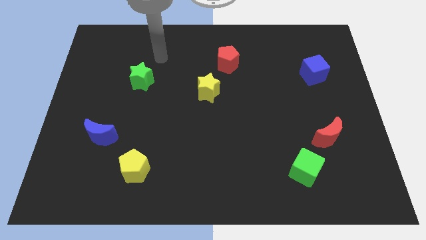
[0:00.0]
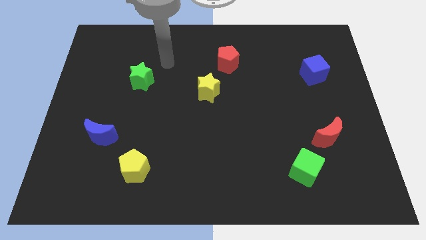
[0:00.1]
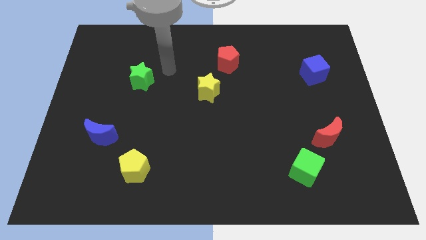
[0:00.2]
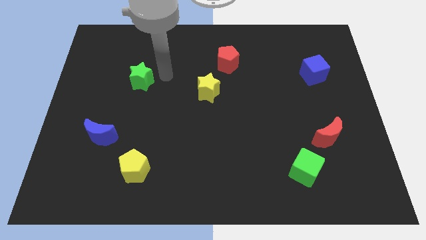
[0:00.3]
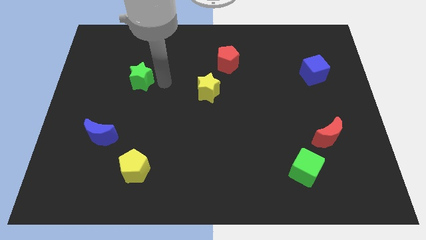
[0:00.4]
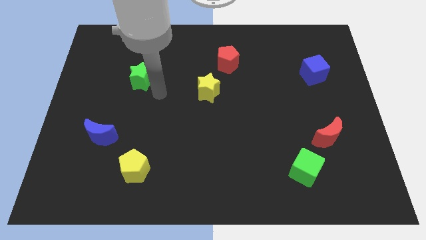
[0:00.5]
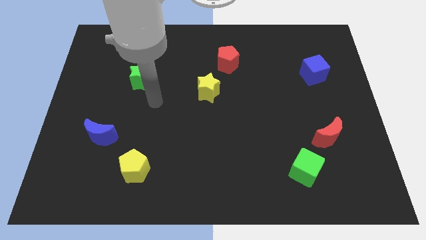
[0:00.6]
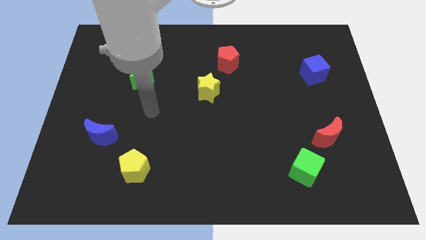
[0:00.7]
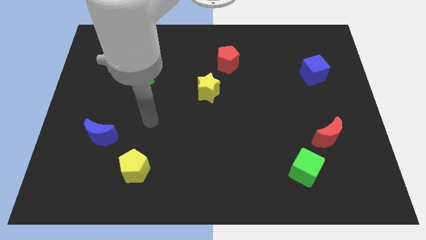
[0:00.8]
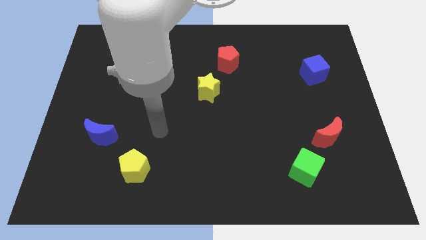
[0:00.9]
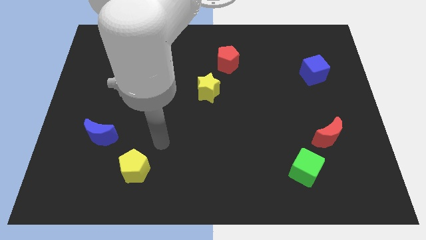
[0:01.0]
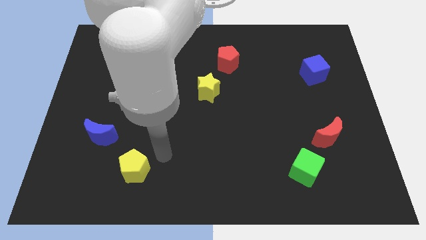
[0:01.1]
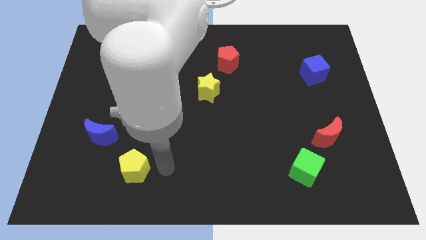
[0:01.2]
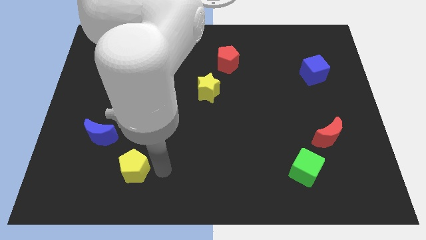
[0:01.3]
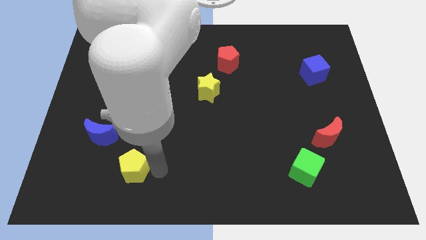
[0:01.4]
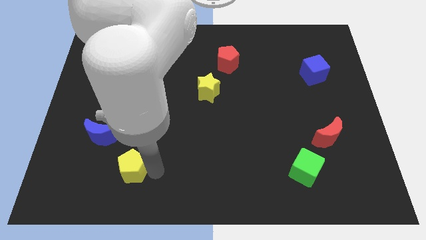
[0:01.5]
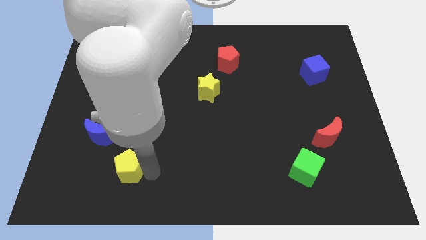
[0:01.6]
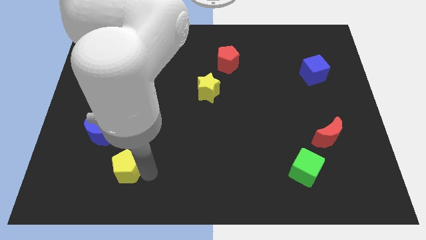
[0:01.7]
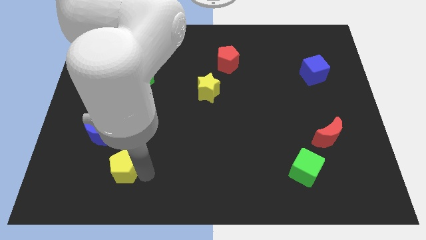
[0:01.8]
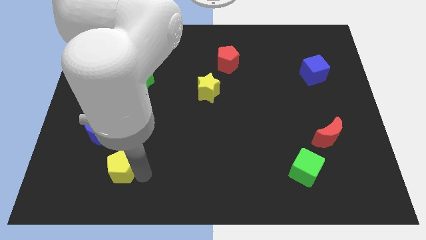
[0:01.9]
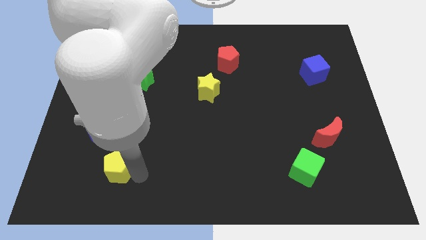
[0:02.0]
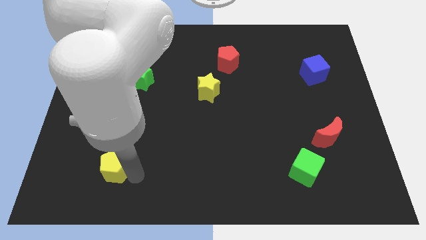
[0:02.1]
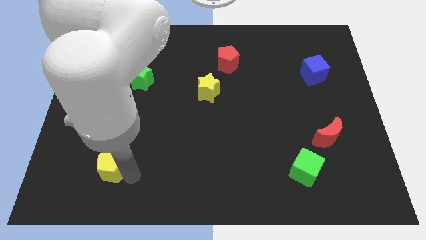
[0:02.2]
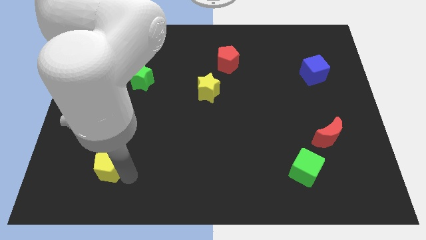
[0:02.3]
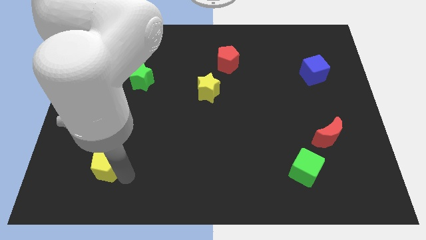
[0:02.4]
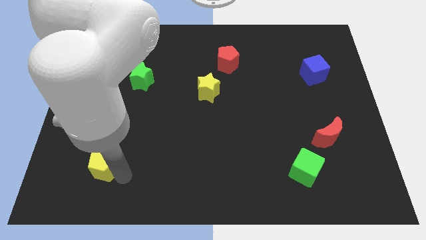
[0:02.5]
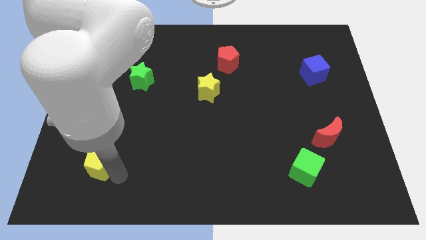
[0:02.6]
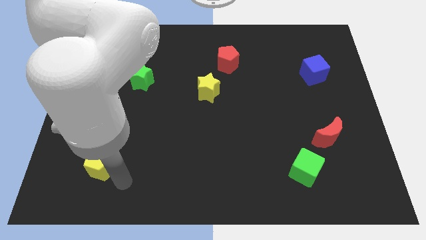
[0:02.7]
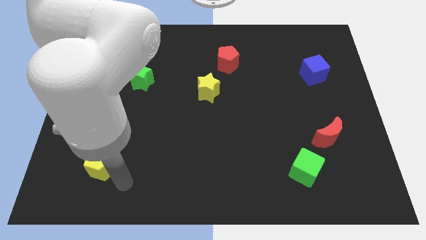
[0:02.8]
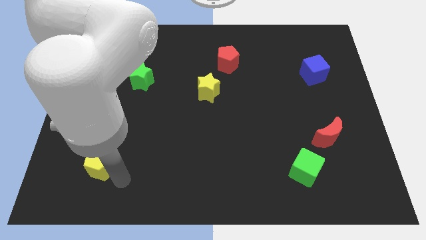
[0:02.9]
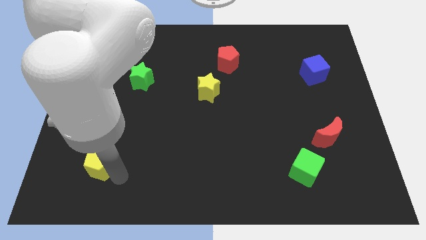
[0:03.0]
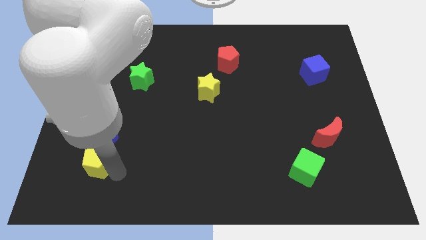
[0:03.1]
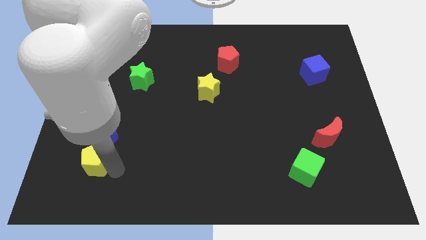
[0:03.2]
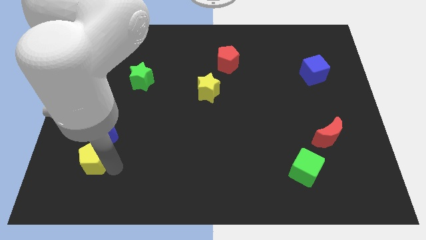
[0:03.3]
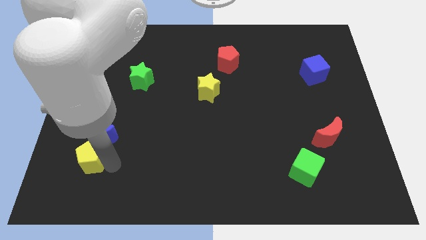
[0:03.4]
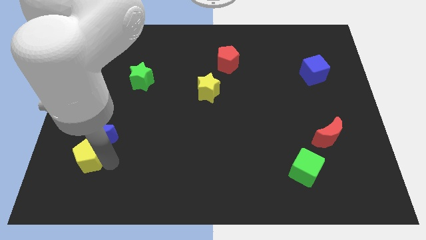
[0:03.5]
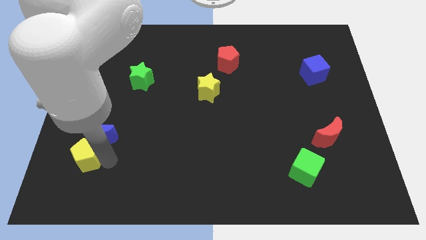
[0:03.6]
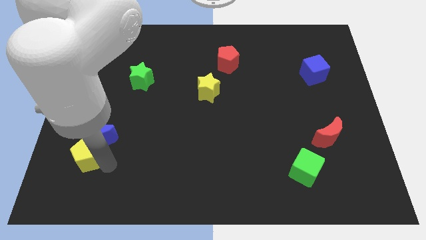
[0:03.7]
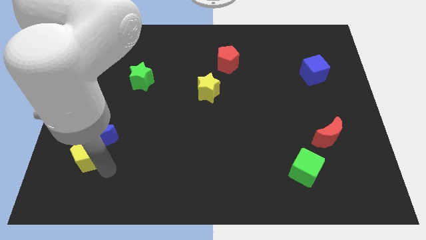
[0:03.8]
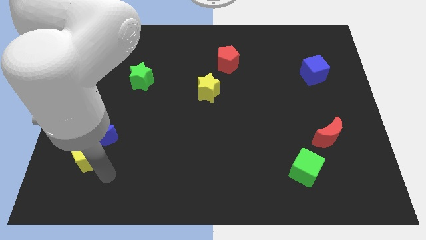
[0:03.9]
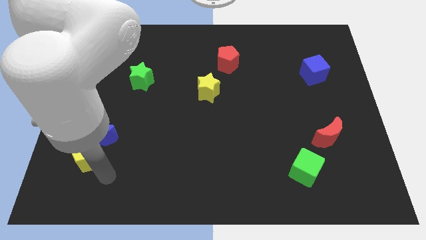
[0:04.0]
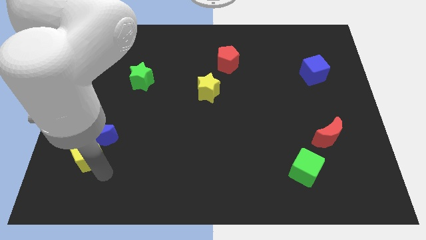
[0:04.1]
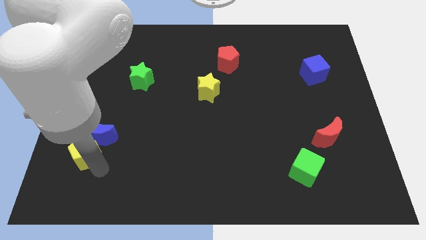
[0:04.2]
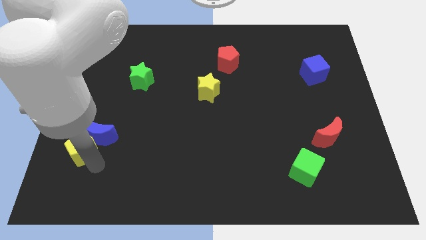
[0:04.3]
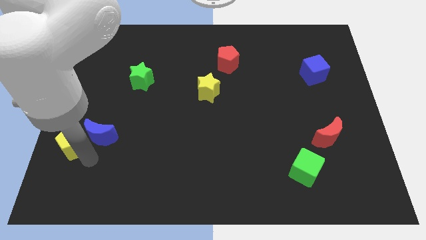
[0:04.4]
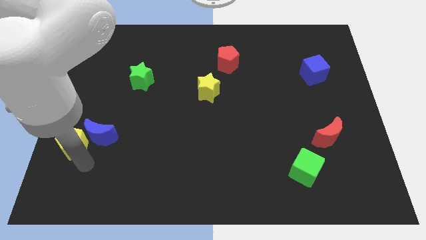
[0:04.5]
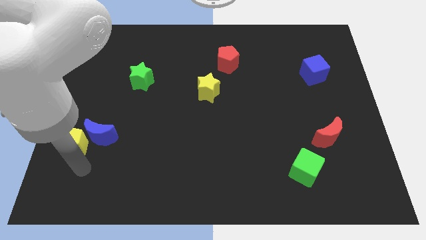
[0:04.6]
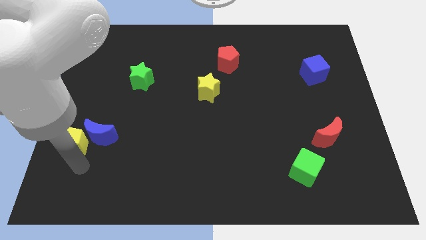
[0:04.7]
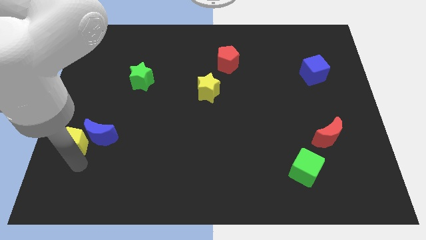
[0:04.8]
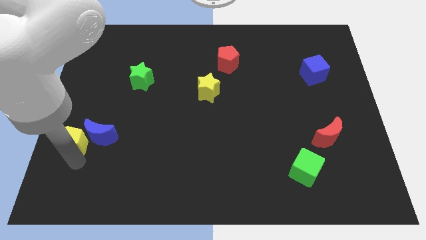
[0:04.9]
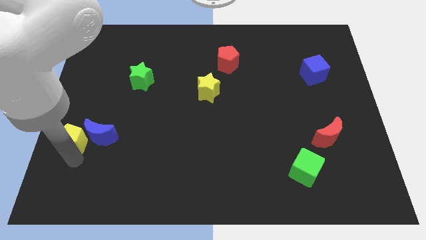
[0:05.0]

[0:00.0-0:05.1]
push the yellow pentagon to the left side

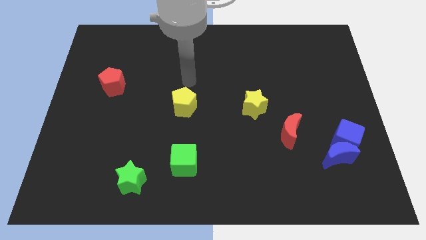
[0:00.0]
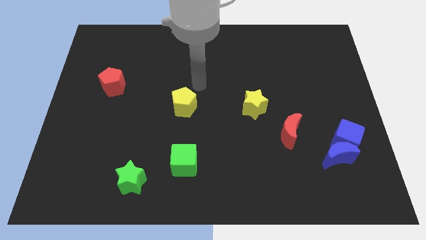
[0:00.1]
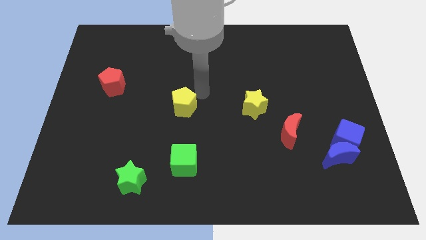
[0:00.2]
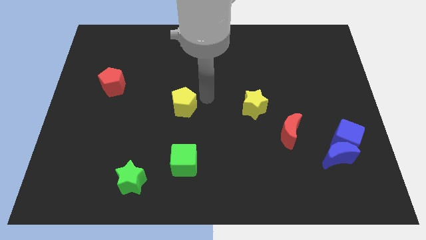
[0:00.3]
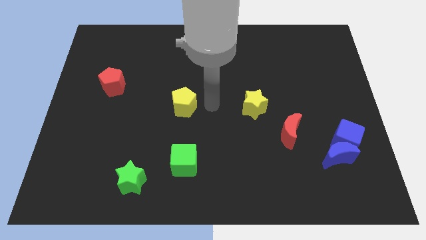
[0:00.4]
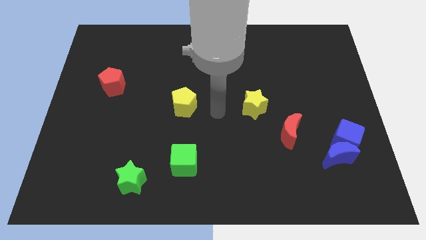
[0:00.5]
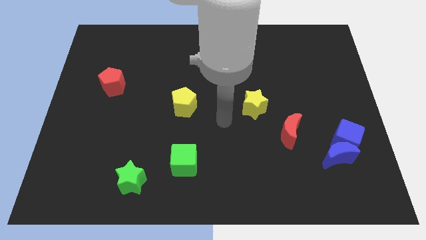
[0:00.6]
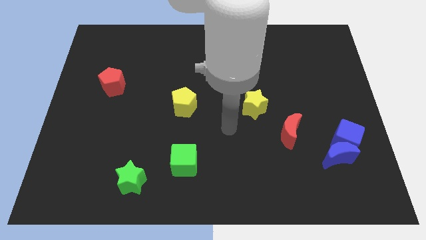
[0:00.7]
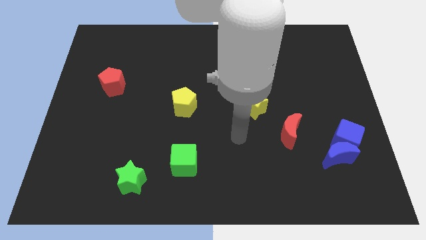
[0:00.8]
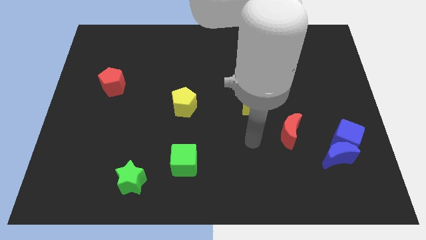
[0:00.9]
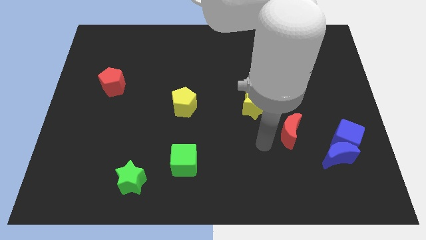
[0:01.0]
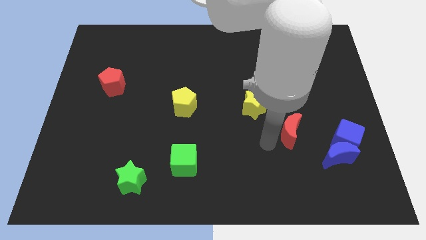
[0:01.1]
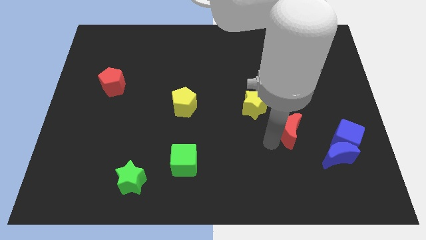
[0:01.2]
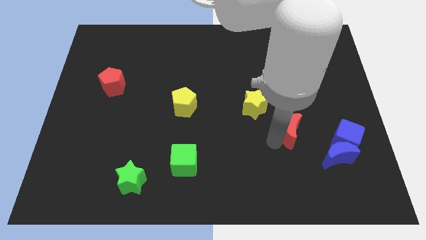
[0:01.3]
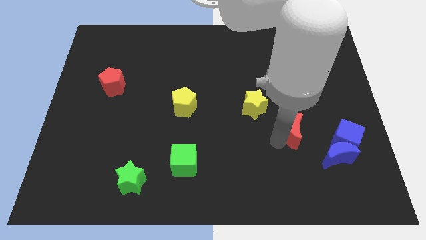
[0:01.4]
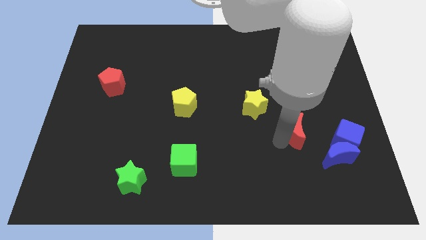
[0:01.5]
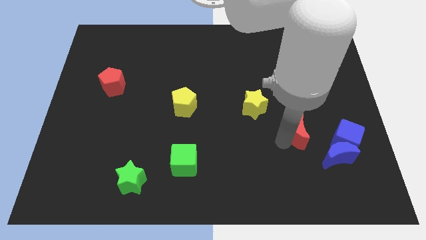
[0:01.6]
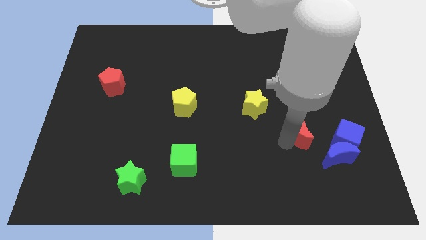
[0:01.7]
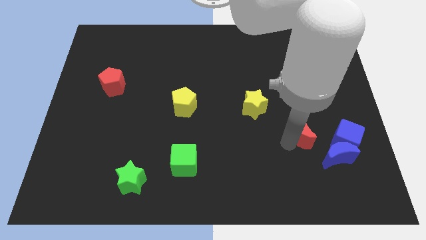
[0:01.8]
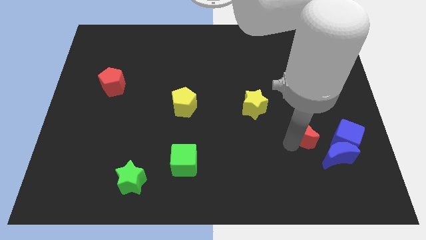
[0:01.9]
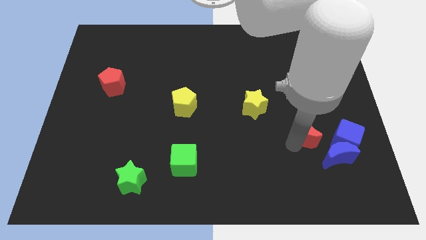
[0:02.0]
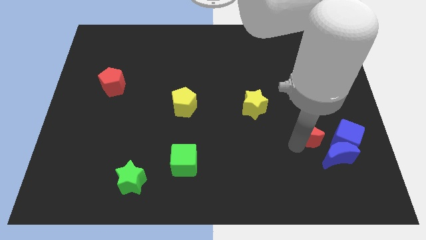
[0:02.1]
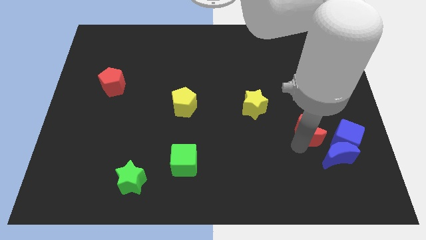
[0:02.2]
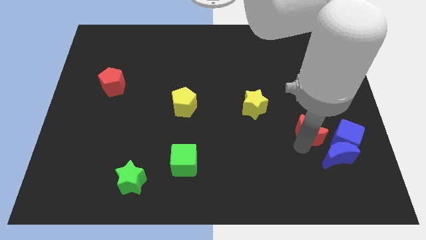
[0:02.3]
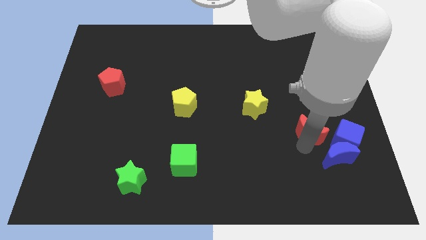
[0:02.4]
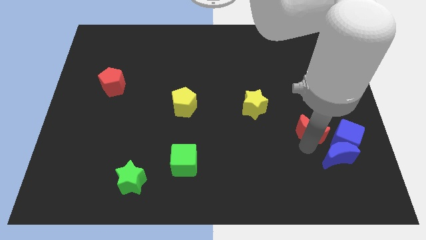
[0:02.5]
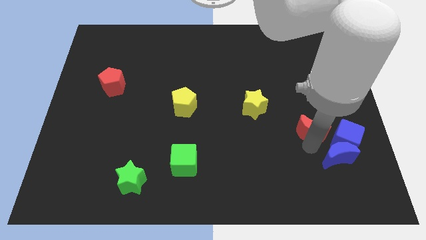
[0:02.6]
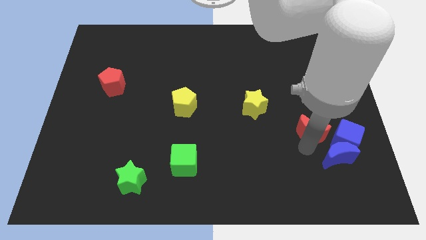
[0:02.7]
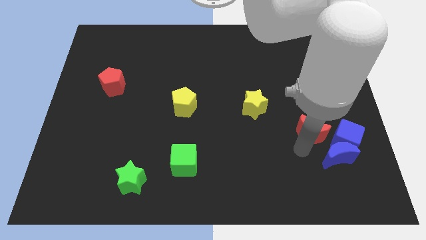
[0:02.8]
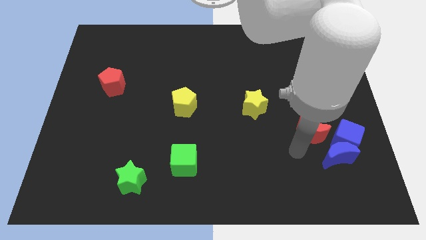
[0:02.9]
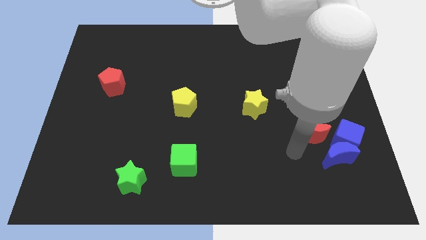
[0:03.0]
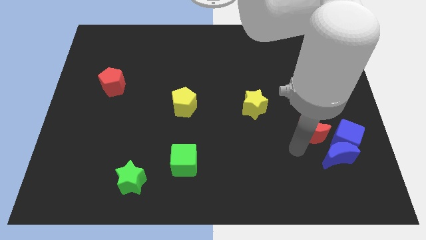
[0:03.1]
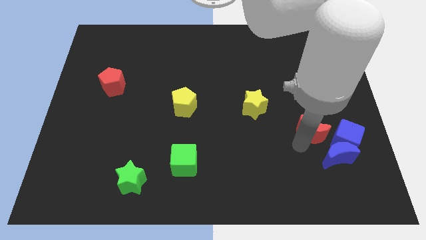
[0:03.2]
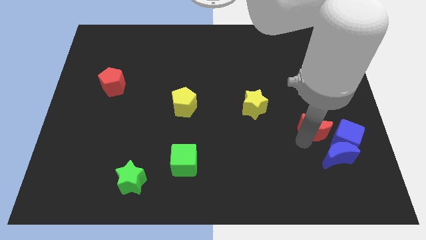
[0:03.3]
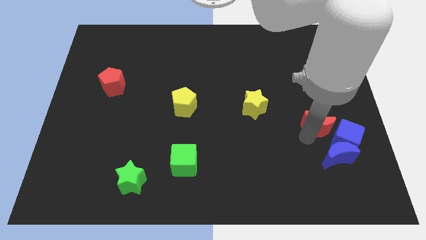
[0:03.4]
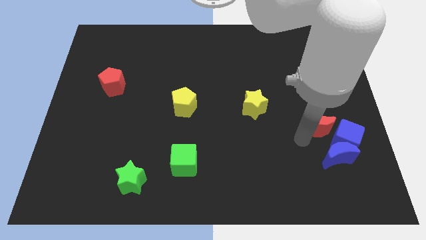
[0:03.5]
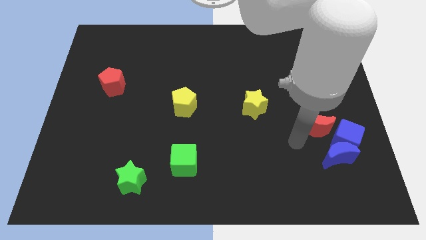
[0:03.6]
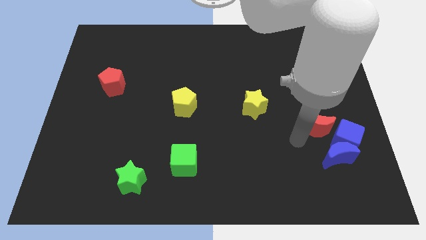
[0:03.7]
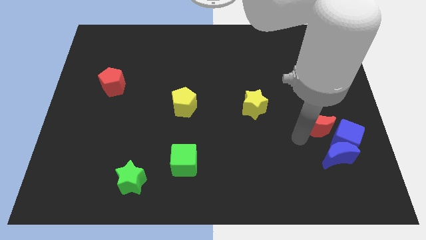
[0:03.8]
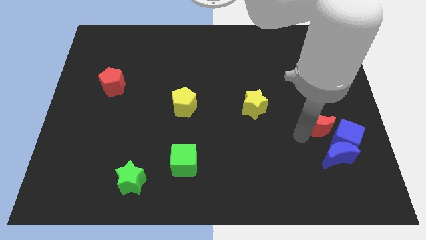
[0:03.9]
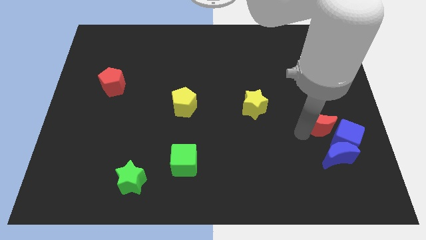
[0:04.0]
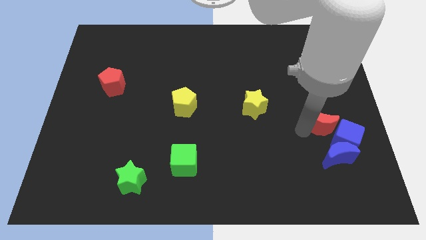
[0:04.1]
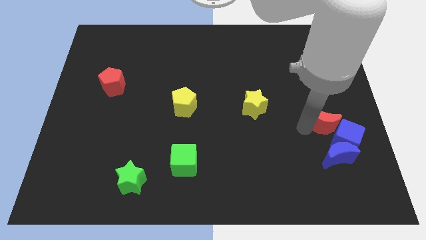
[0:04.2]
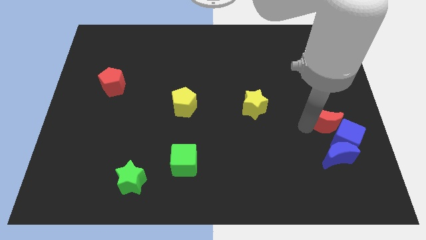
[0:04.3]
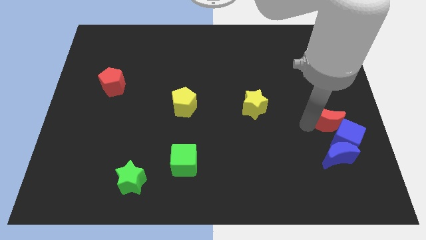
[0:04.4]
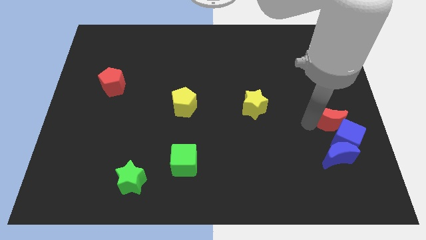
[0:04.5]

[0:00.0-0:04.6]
move the red moon to the center right
